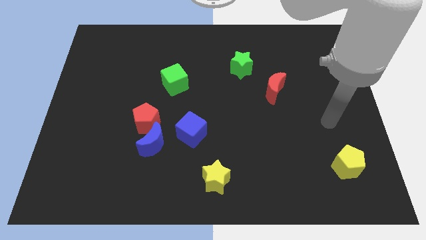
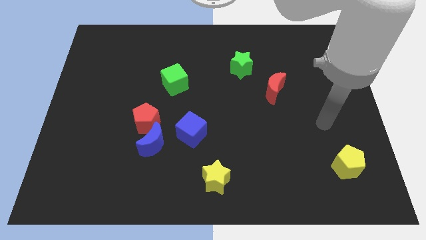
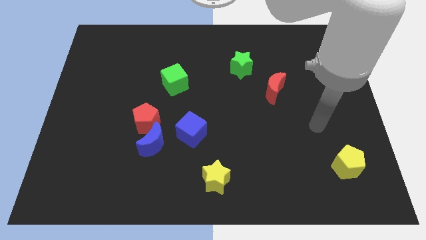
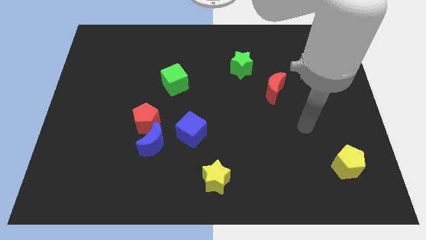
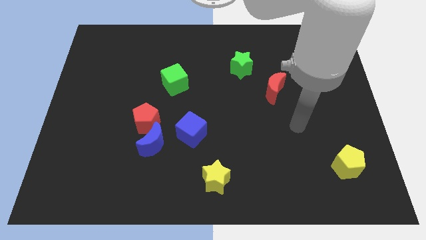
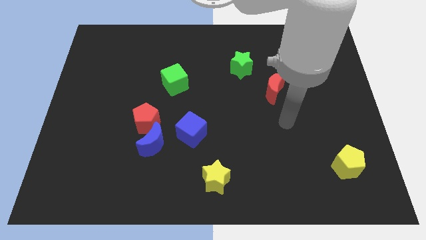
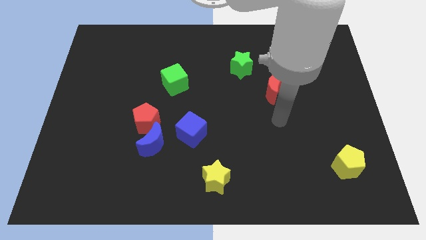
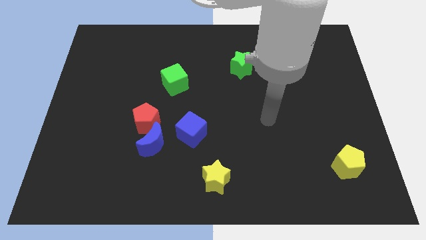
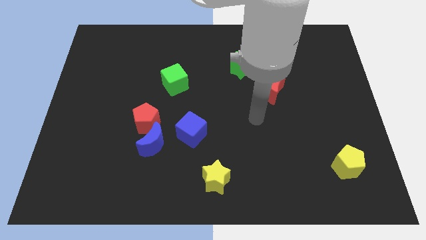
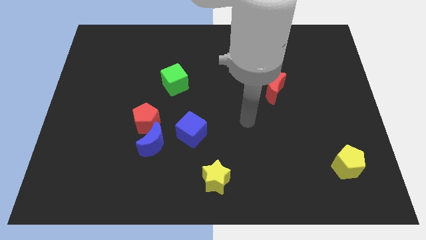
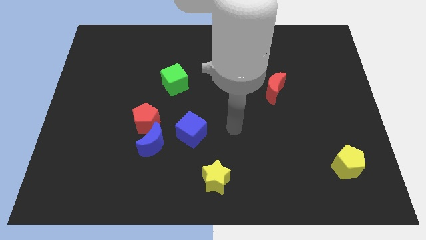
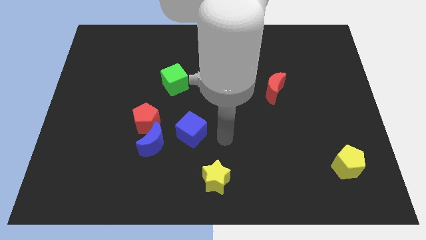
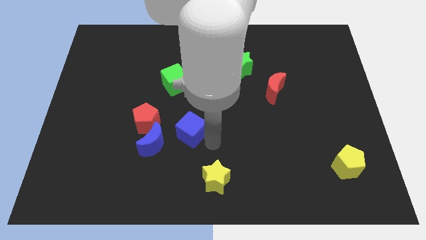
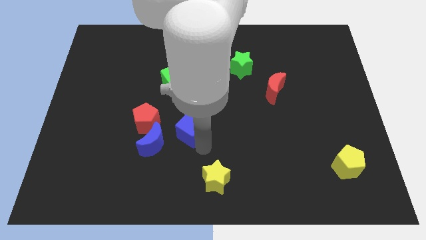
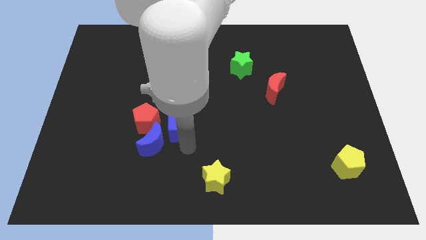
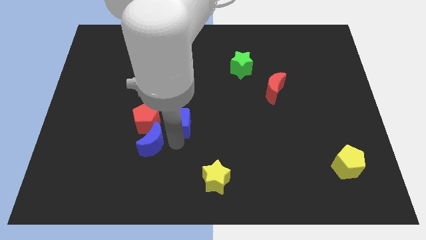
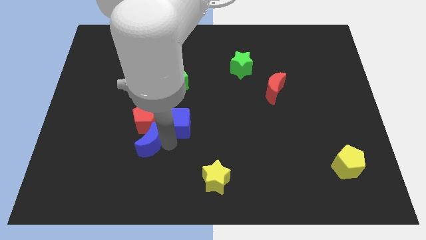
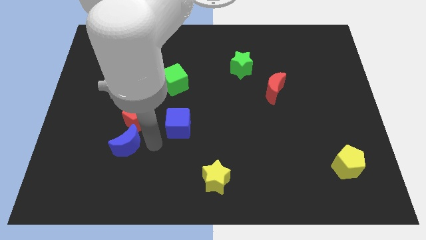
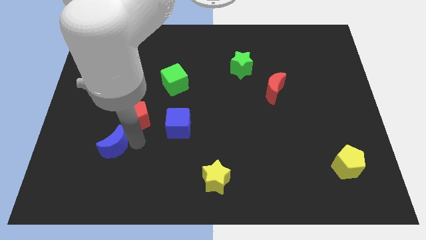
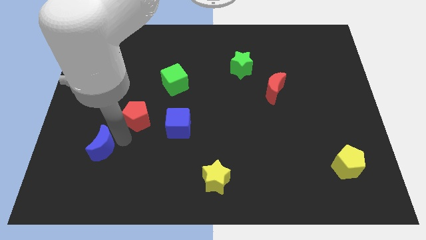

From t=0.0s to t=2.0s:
pull the red pentagon apart from the blue moon

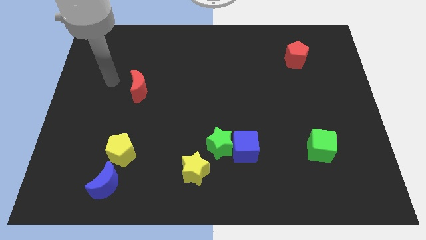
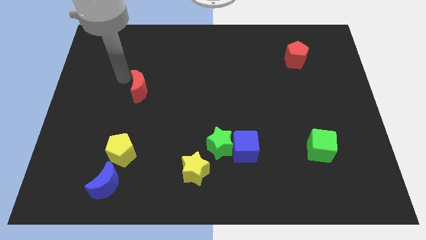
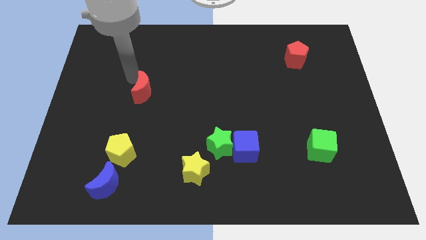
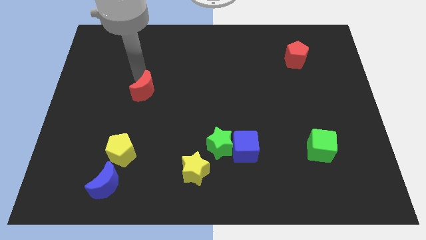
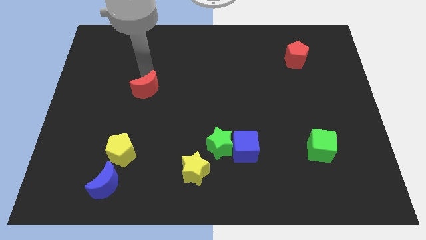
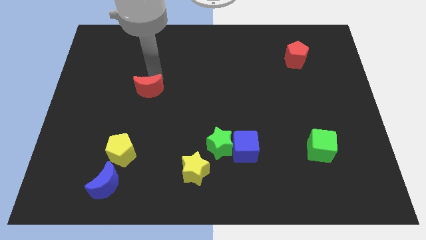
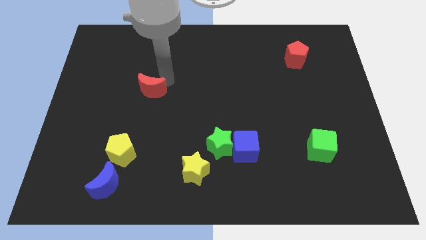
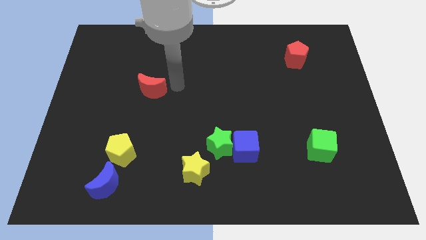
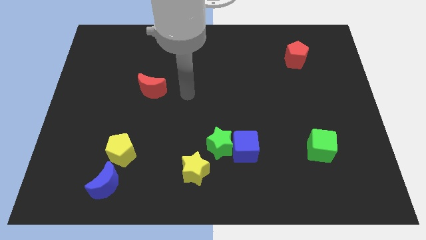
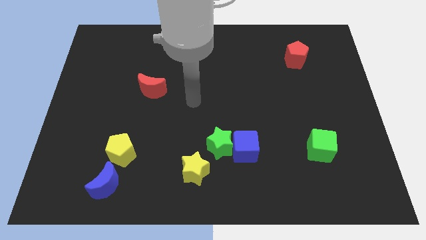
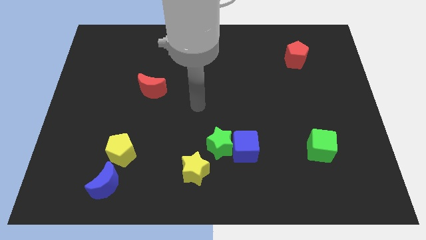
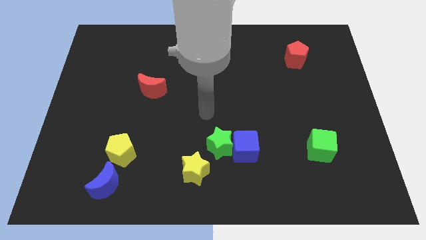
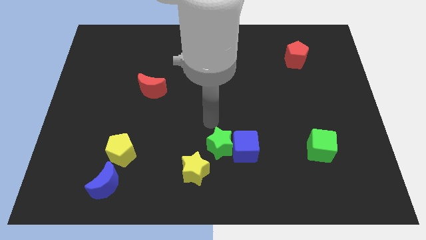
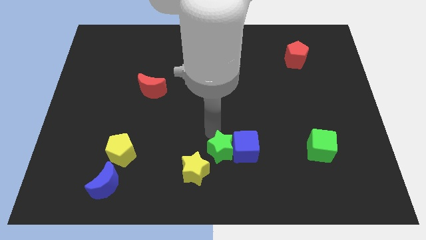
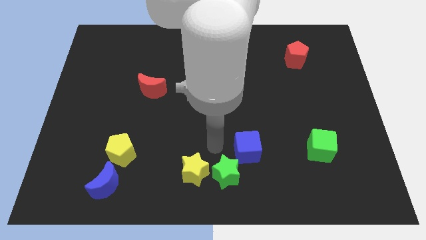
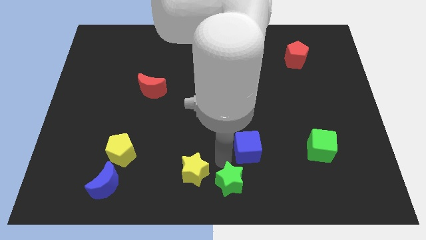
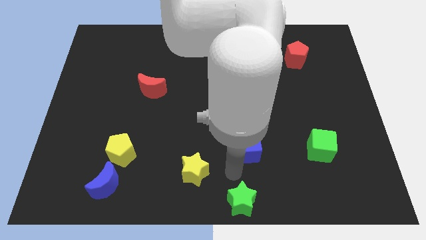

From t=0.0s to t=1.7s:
move the blue cube away from the green star

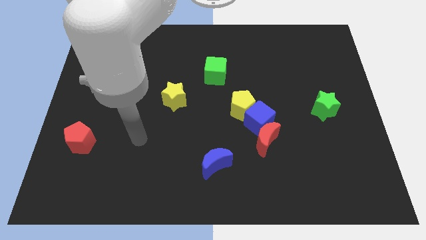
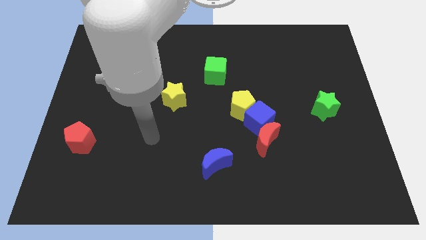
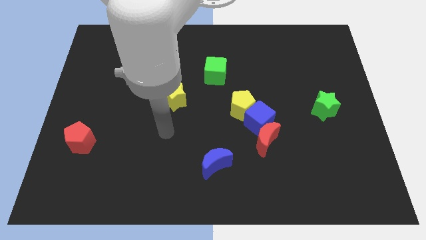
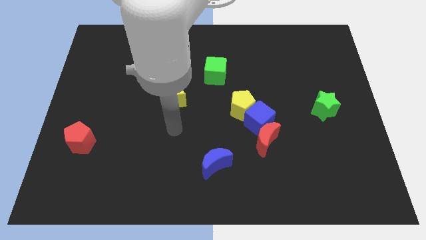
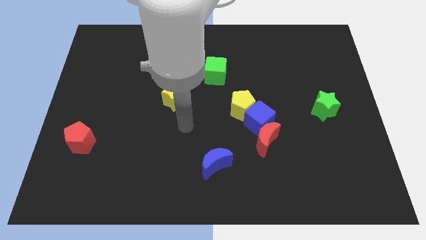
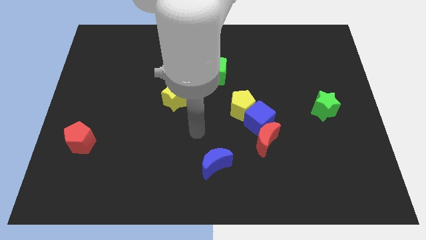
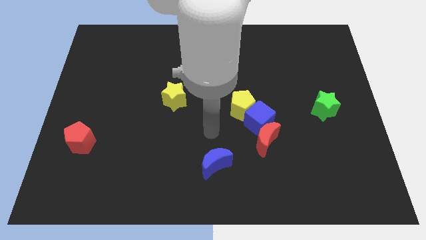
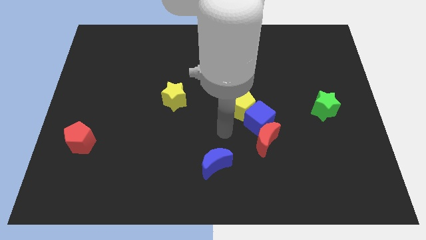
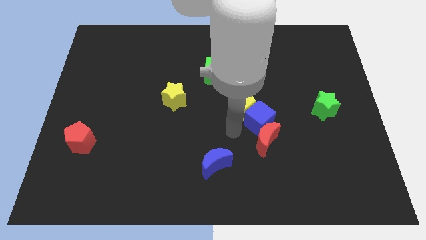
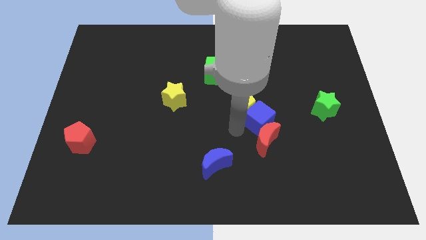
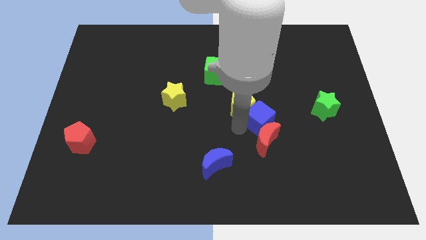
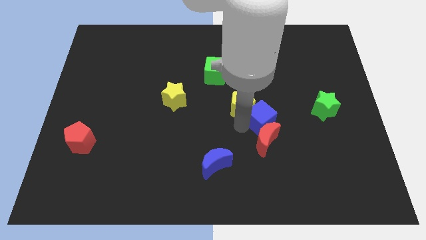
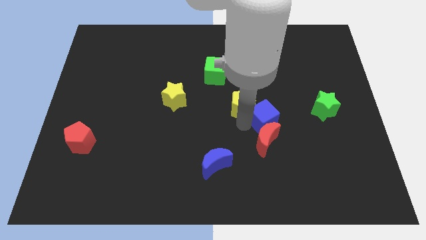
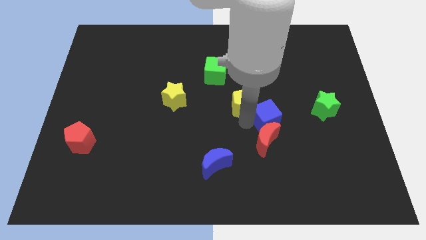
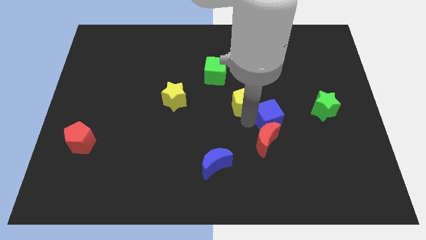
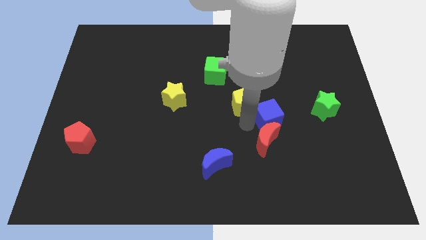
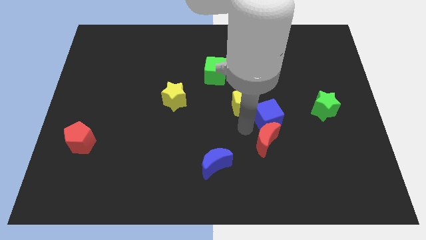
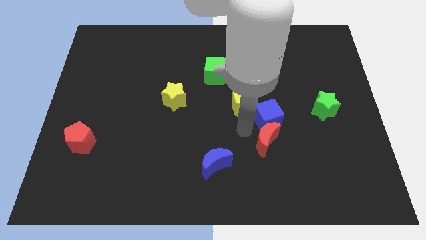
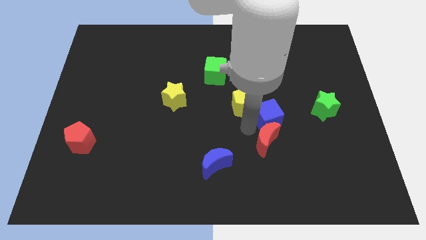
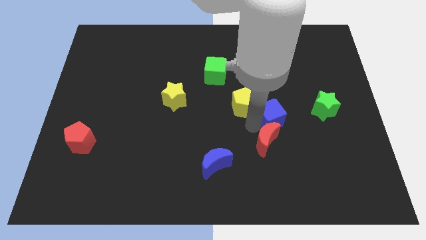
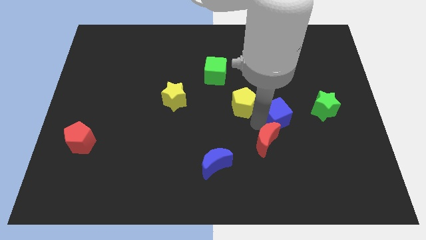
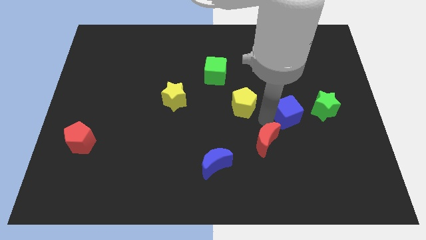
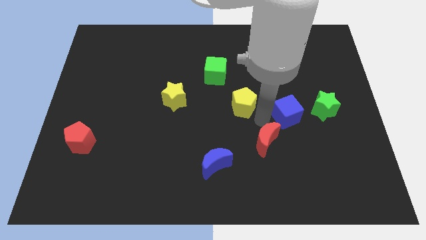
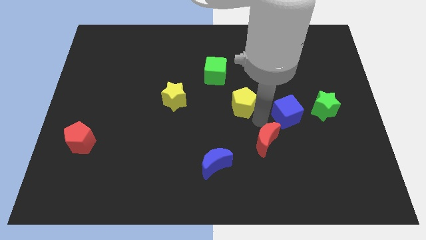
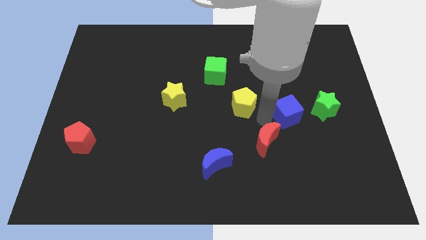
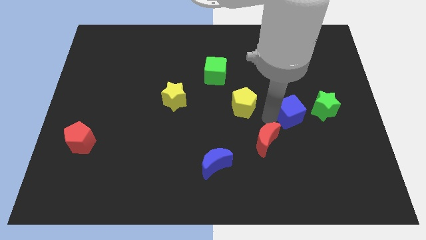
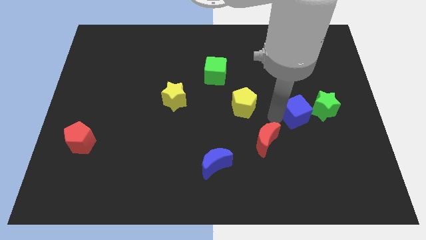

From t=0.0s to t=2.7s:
pull the blue cube apart from the yellow pentagon and red moon

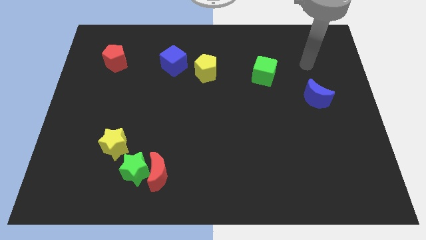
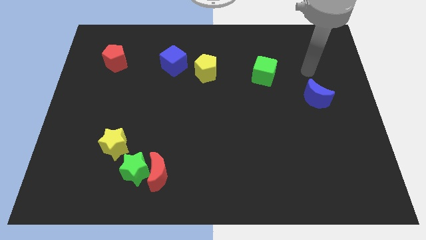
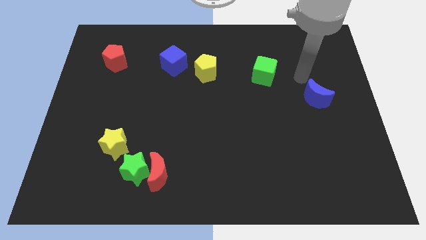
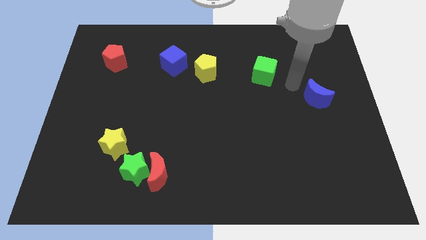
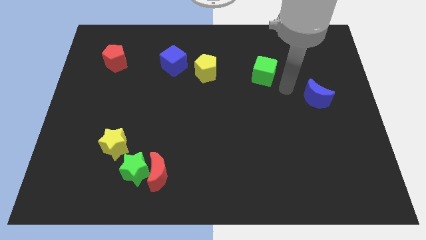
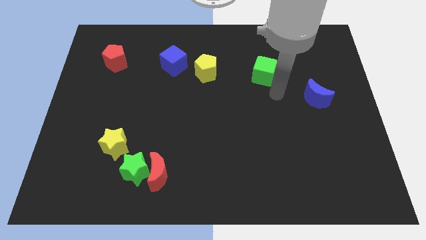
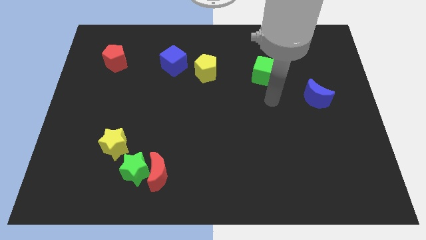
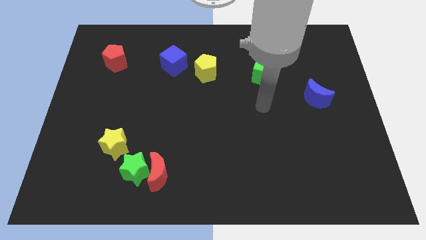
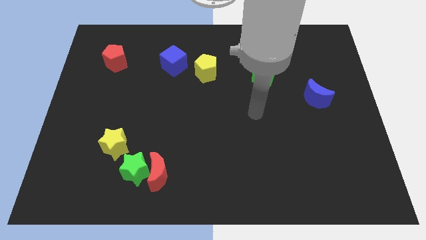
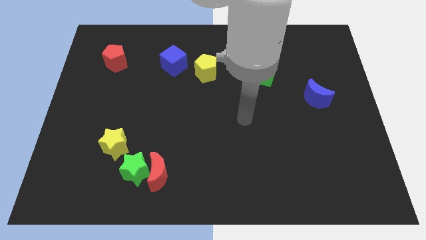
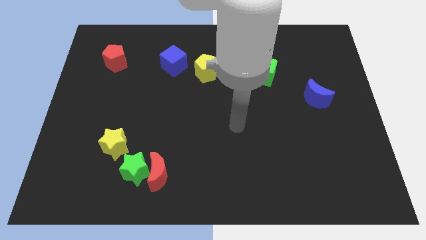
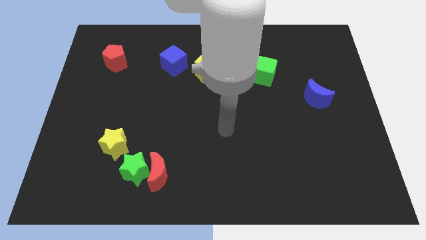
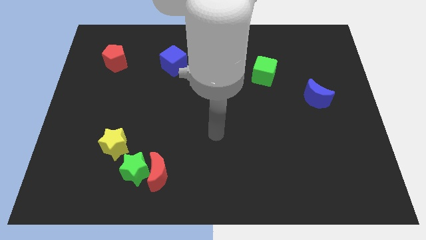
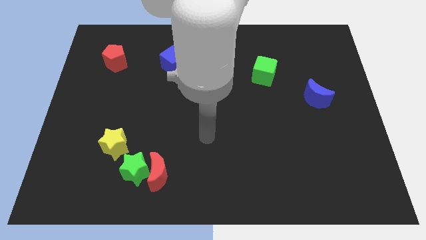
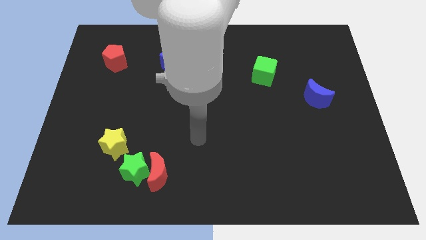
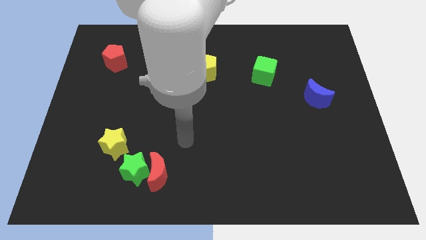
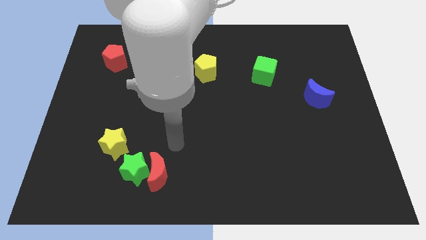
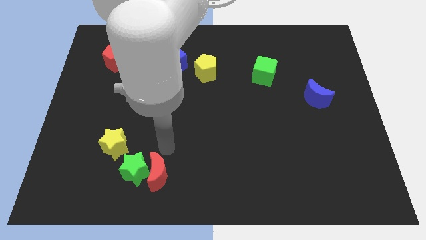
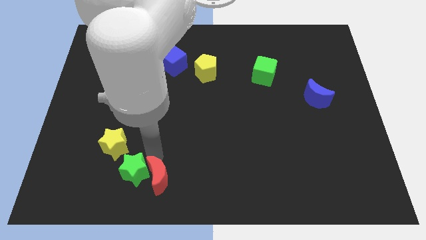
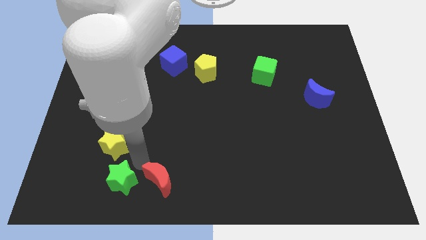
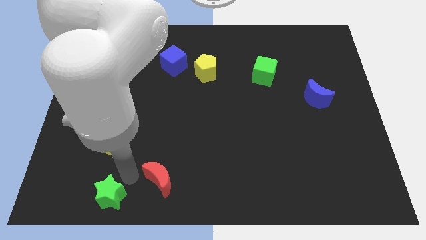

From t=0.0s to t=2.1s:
separate the red moon from the green star

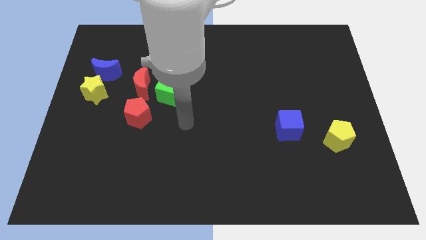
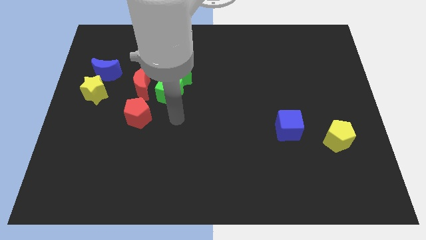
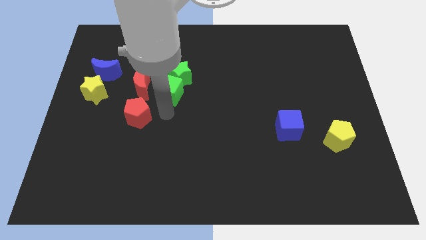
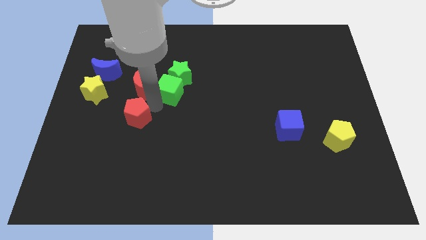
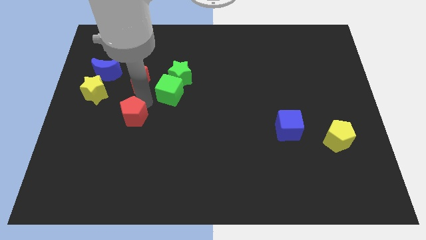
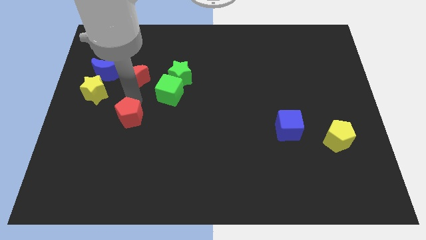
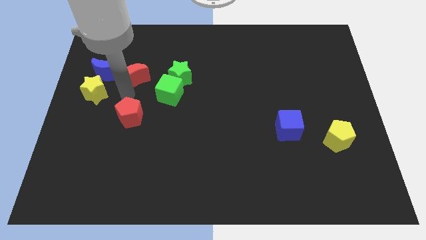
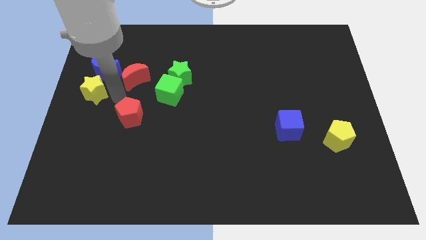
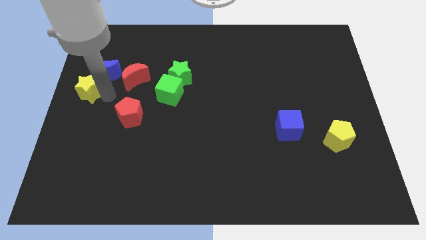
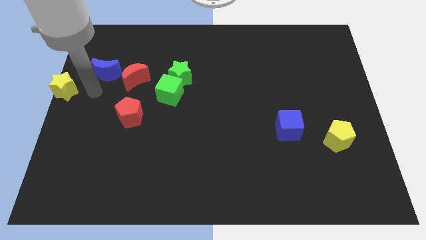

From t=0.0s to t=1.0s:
pull the blue moon apart from the yellow star
